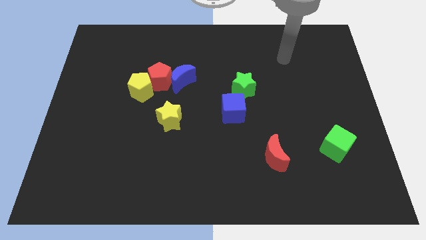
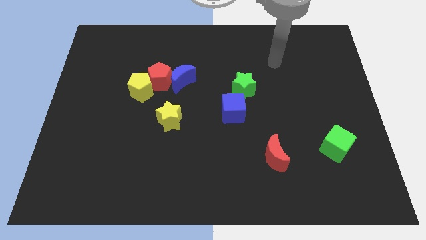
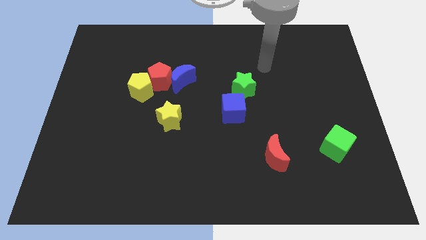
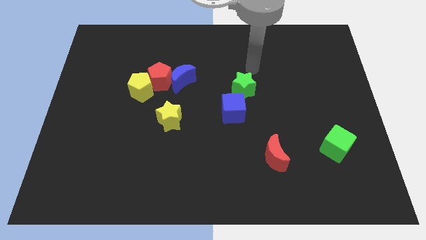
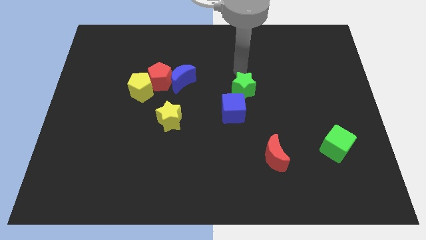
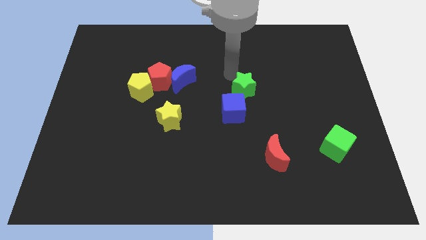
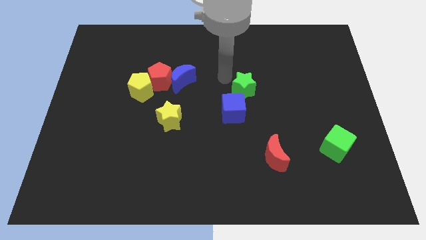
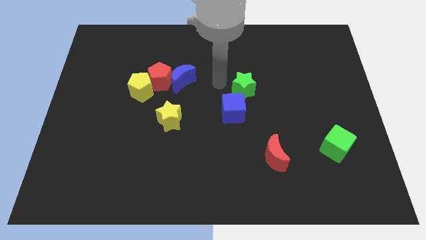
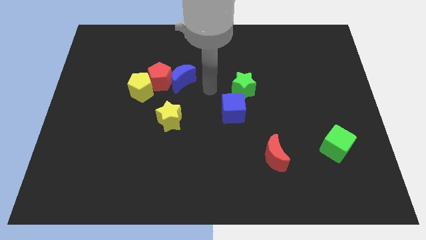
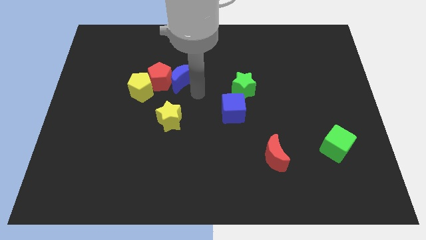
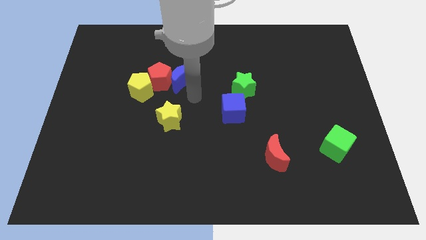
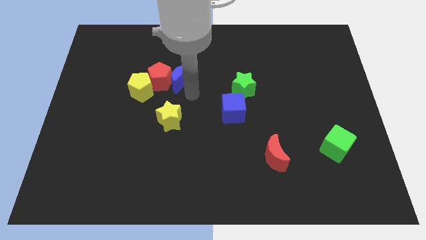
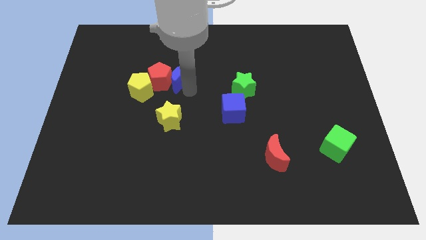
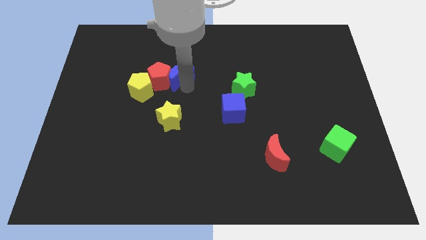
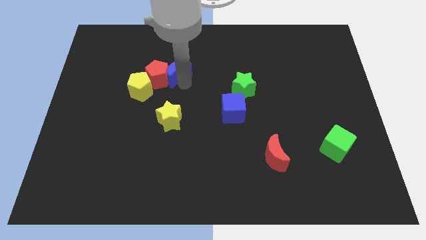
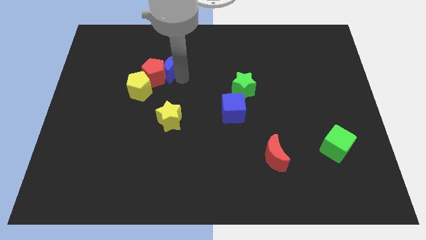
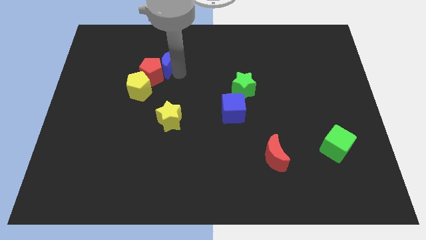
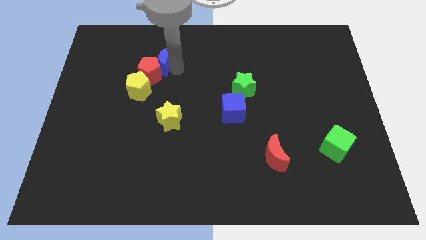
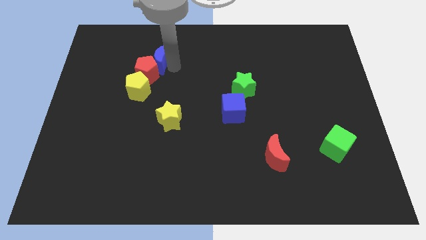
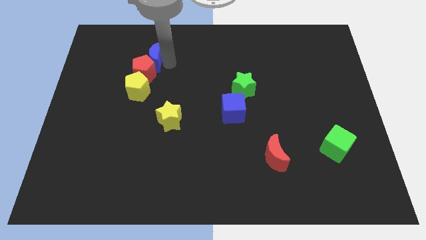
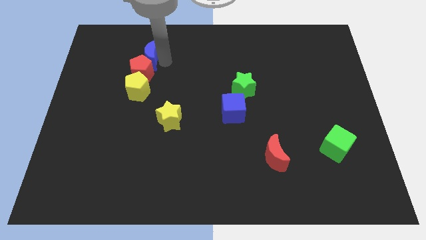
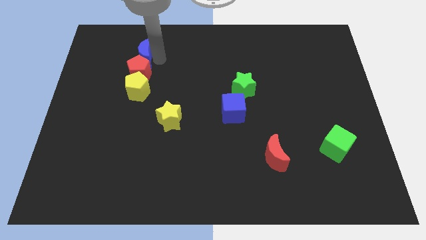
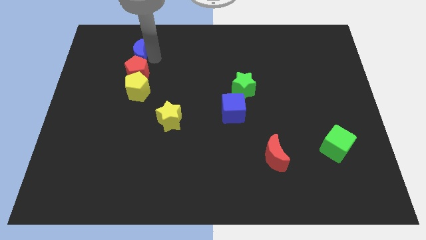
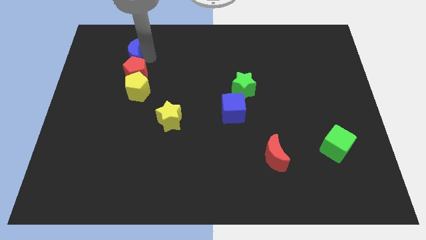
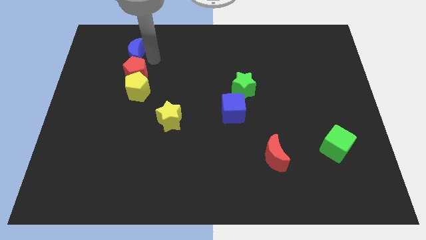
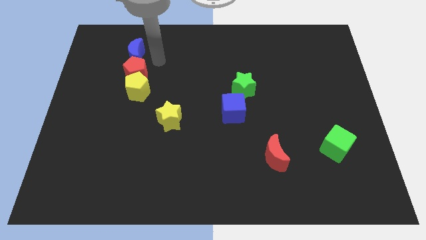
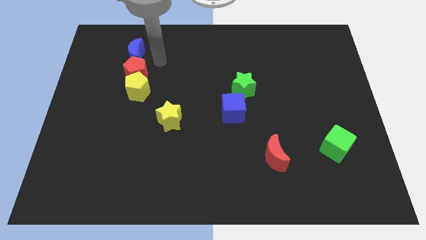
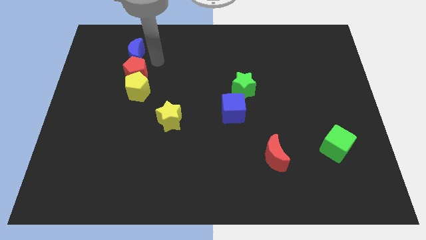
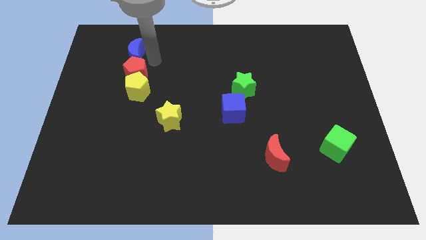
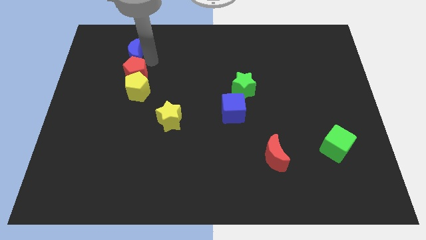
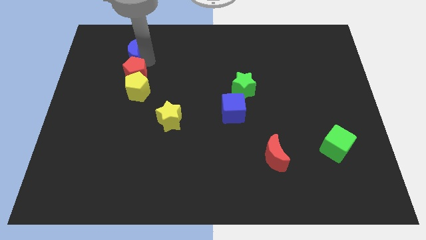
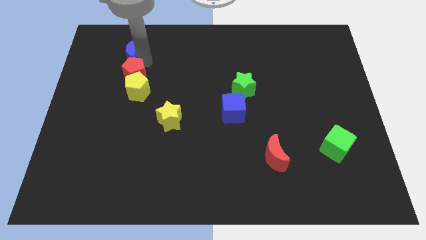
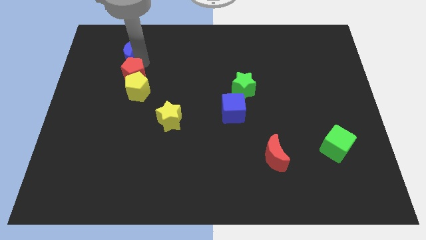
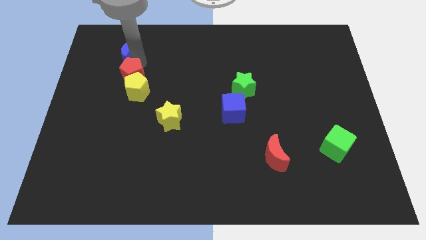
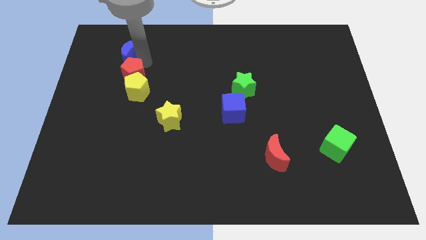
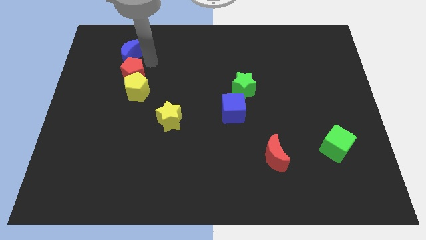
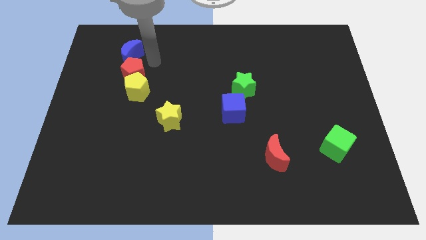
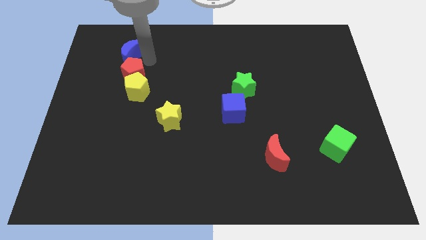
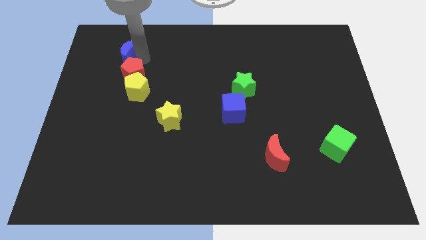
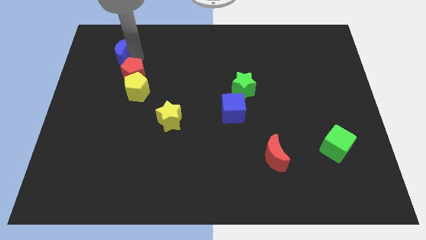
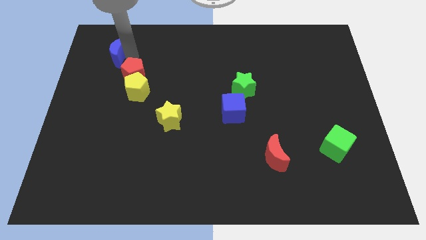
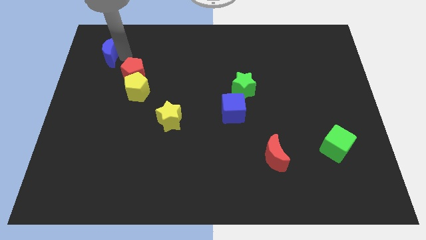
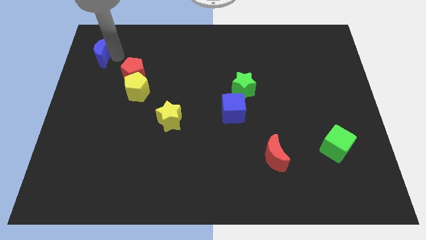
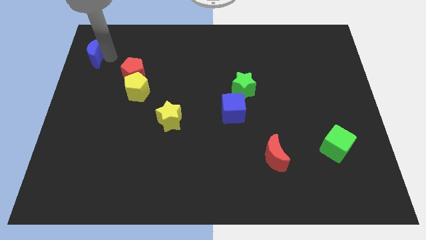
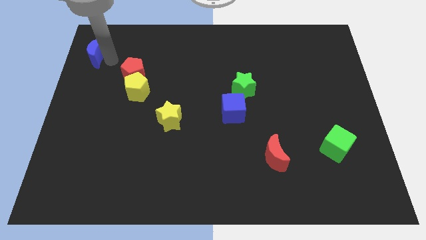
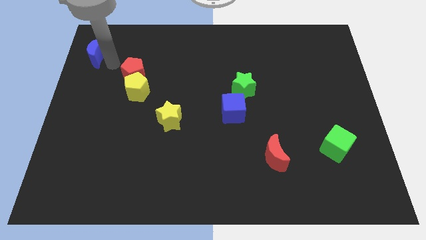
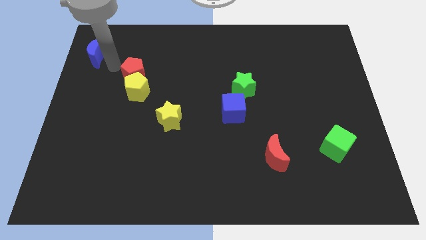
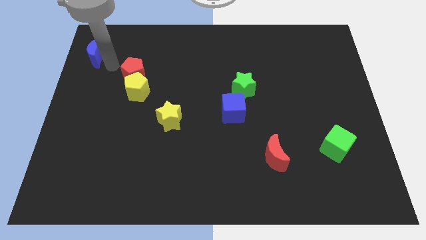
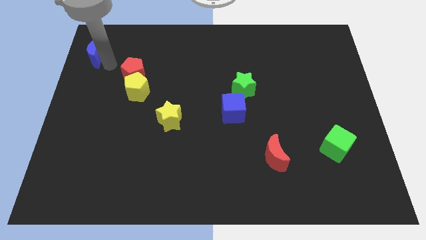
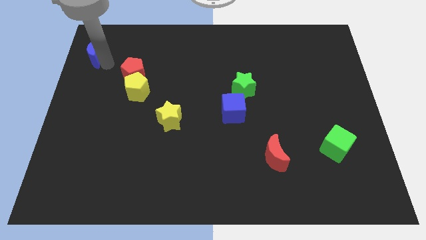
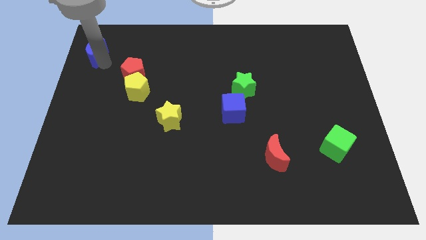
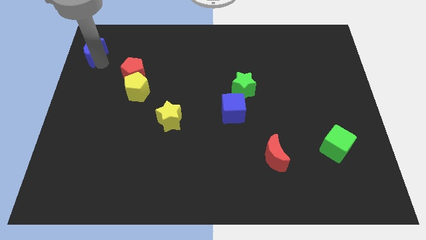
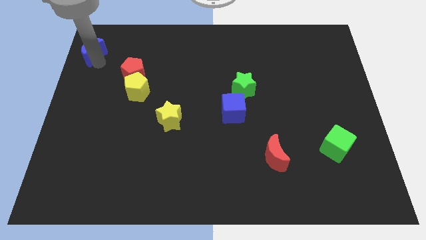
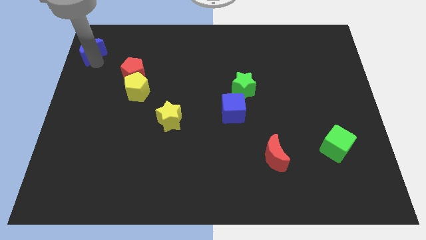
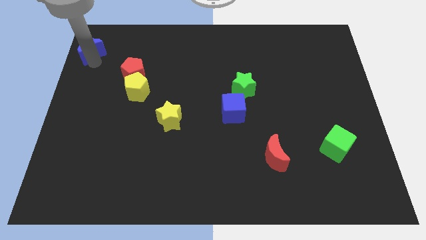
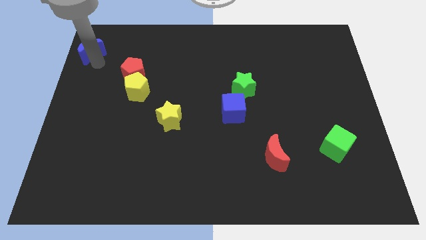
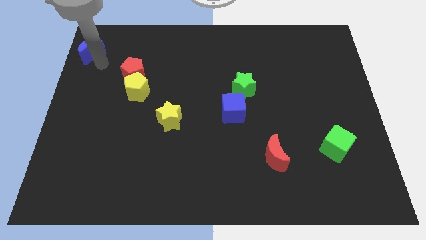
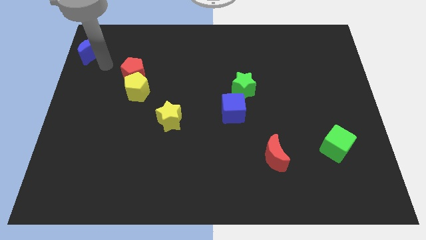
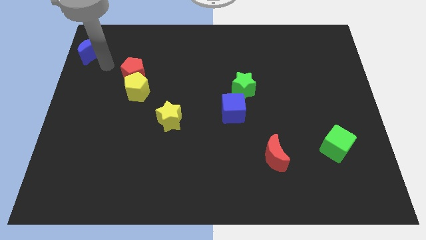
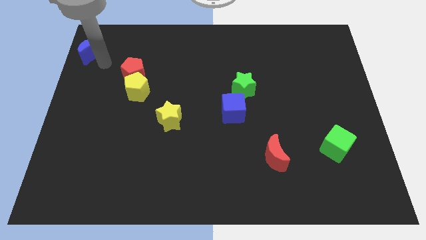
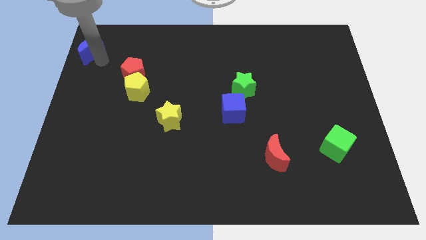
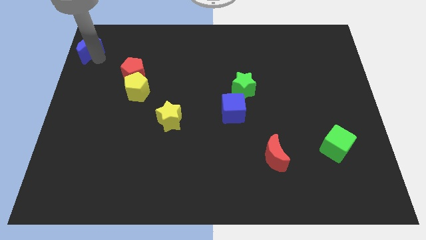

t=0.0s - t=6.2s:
put the blue moon to the top left of the board
